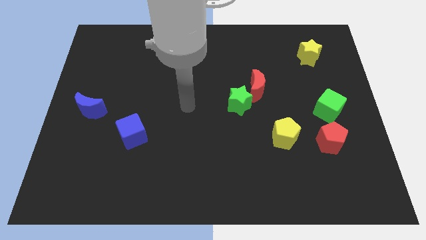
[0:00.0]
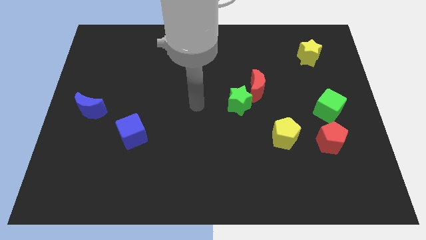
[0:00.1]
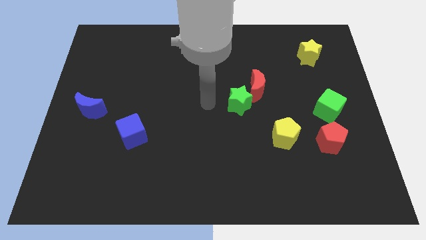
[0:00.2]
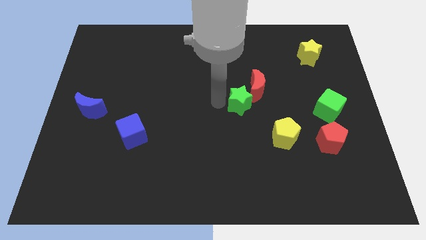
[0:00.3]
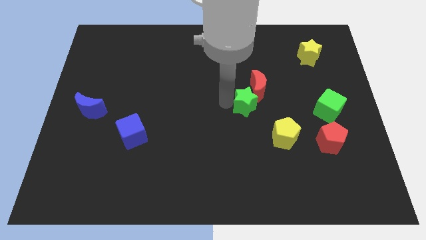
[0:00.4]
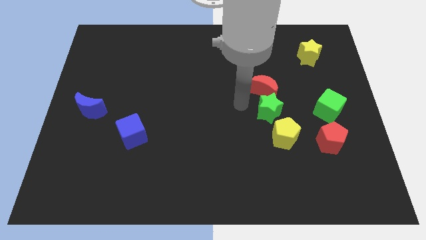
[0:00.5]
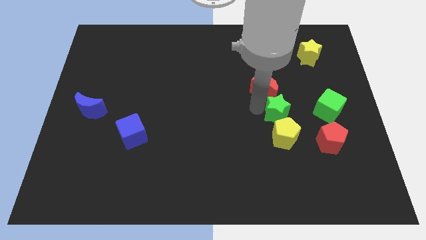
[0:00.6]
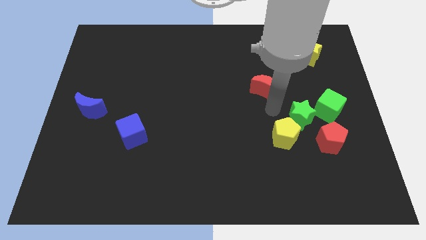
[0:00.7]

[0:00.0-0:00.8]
move the red moon away from the green star

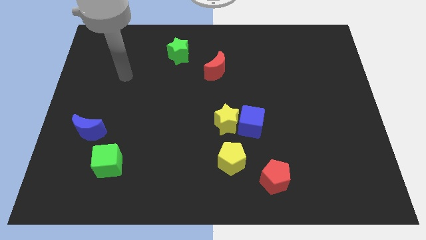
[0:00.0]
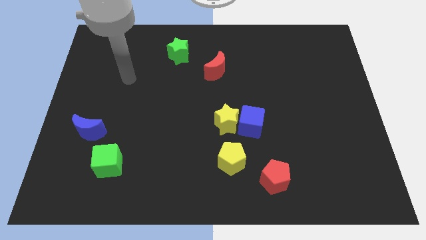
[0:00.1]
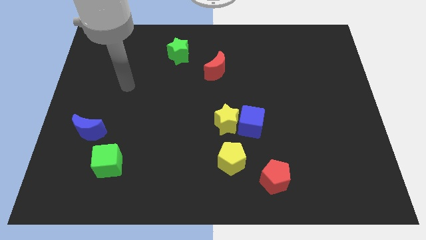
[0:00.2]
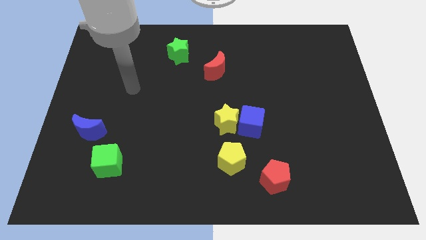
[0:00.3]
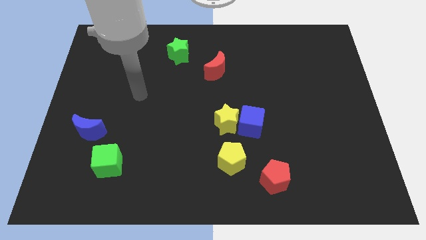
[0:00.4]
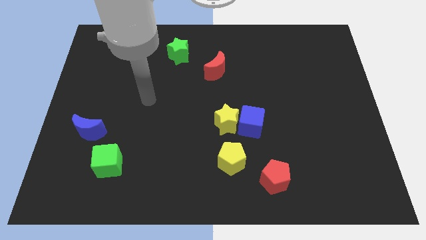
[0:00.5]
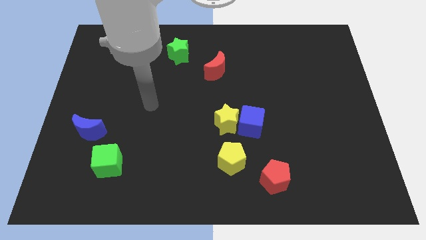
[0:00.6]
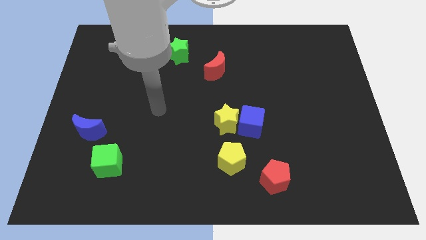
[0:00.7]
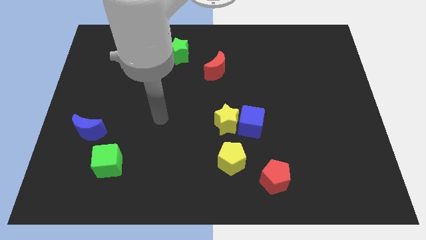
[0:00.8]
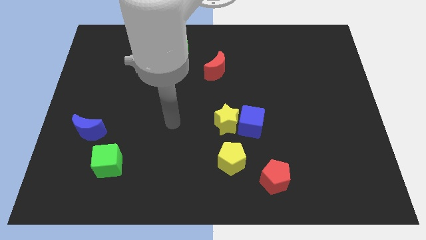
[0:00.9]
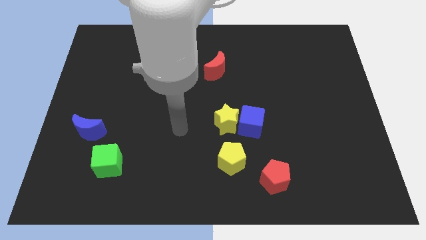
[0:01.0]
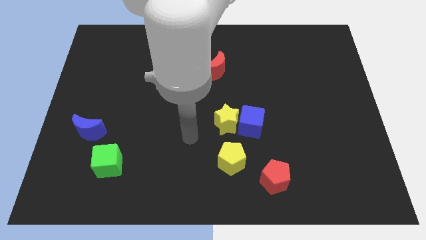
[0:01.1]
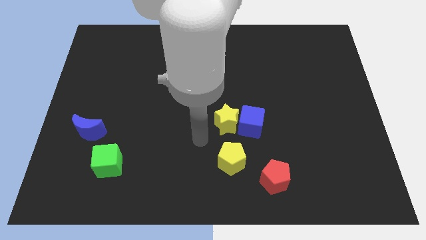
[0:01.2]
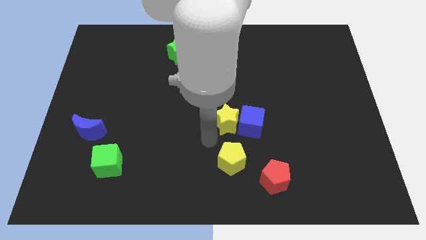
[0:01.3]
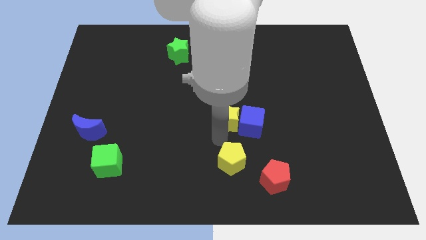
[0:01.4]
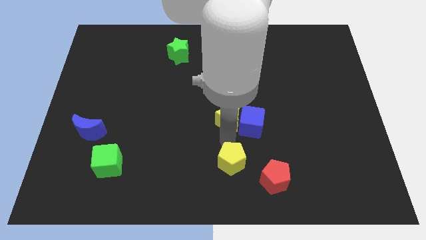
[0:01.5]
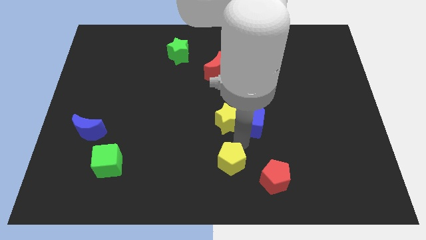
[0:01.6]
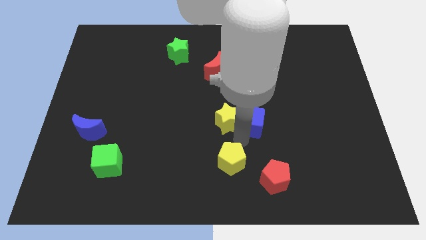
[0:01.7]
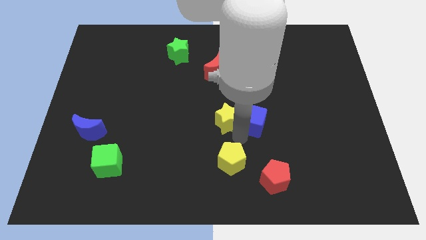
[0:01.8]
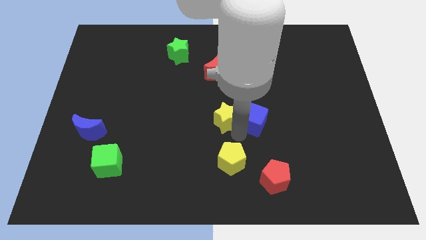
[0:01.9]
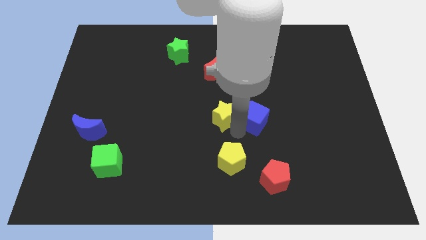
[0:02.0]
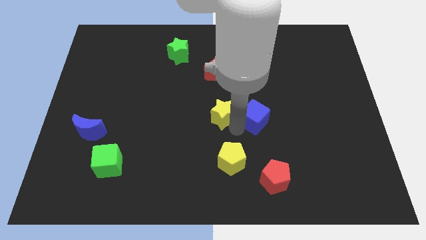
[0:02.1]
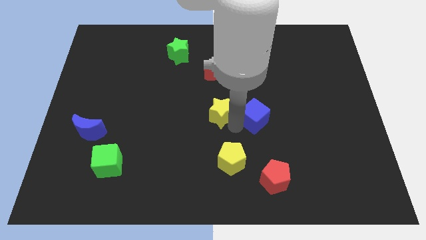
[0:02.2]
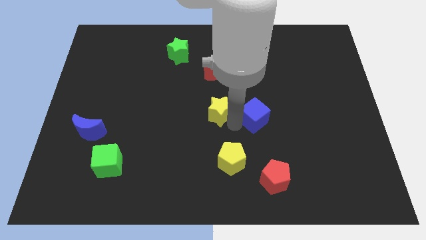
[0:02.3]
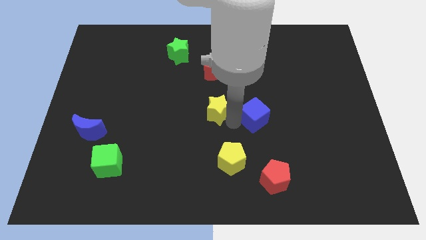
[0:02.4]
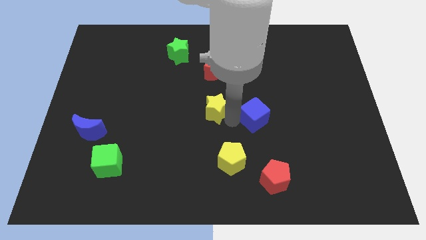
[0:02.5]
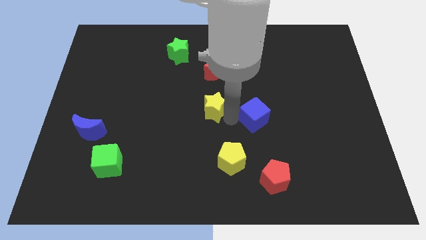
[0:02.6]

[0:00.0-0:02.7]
move the yellow star away from the blue cube and yellow pentagon

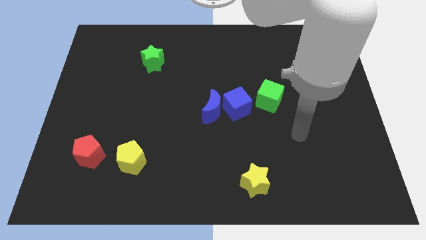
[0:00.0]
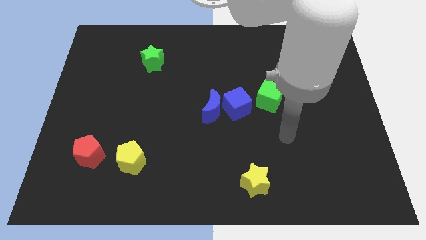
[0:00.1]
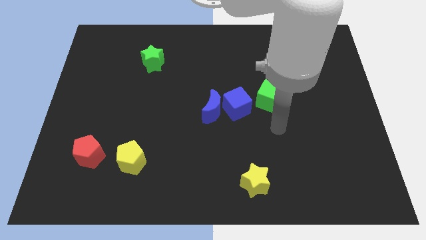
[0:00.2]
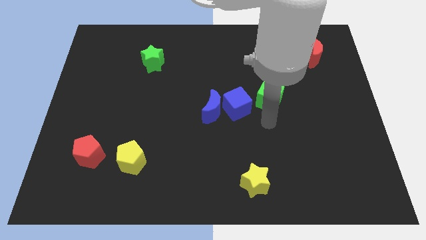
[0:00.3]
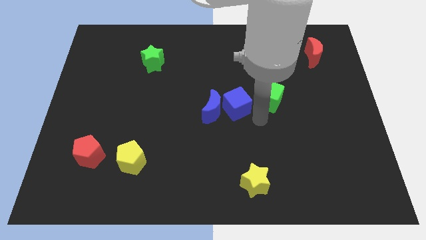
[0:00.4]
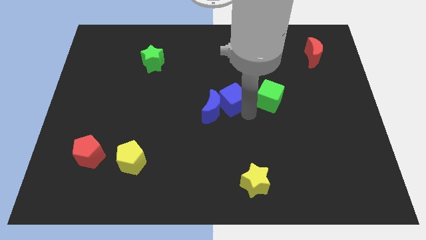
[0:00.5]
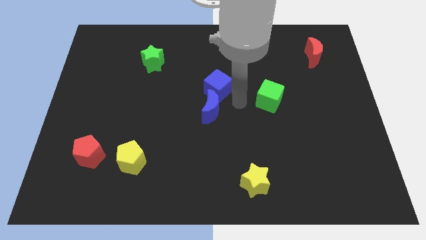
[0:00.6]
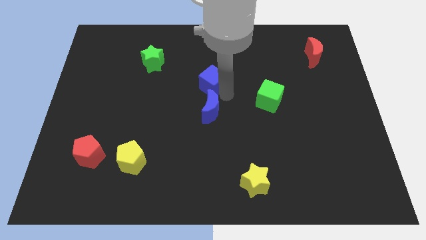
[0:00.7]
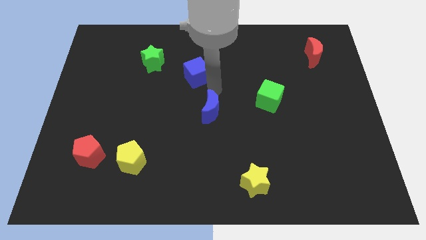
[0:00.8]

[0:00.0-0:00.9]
pull the blue moon apart from the blue cube

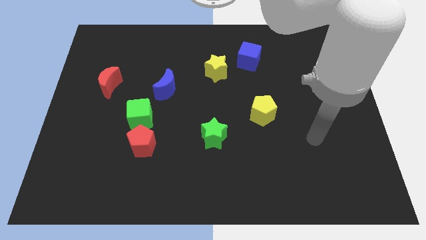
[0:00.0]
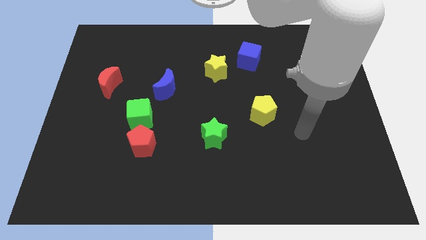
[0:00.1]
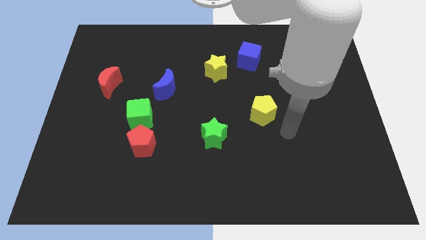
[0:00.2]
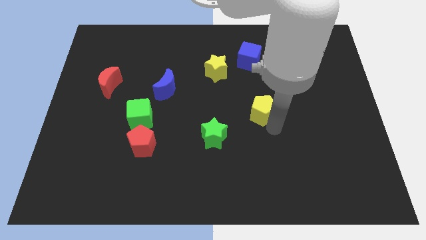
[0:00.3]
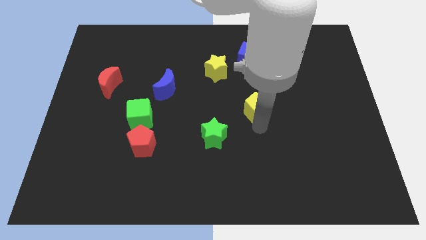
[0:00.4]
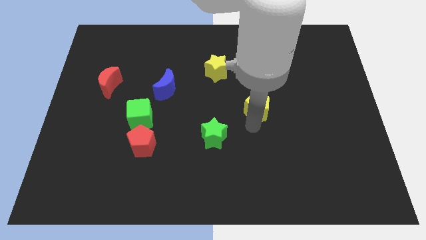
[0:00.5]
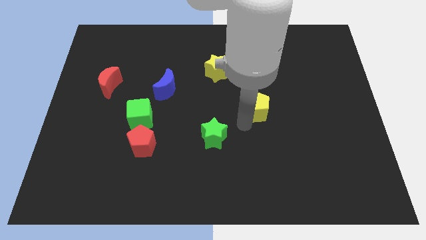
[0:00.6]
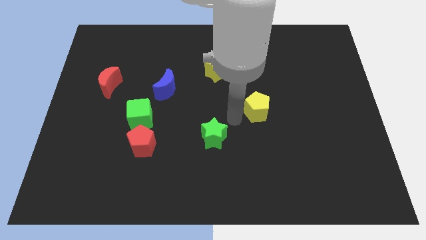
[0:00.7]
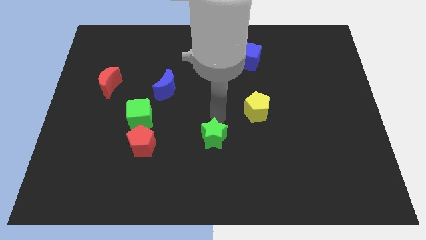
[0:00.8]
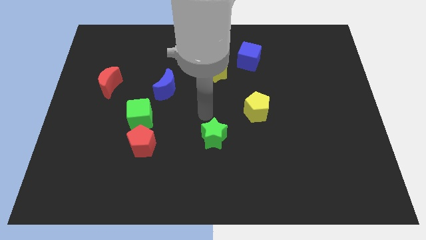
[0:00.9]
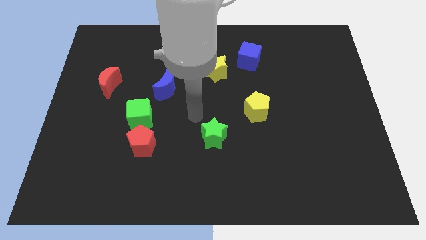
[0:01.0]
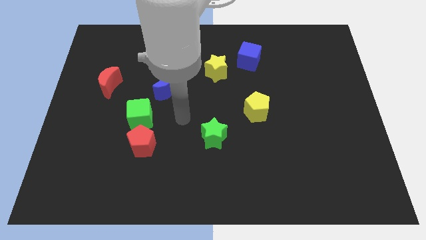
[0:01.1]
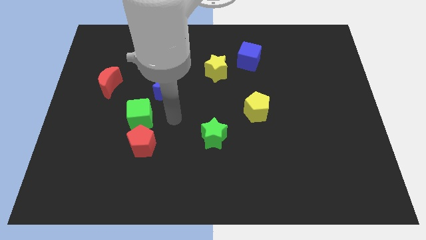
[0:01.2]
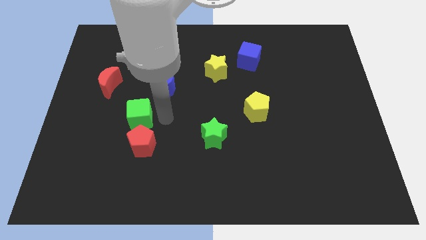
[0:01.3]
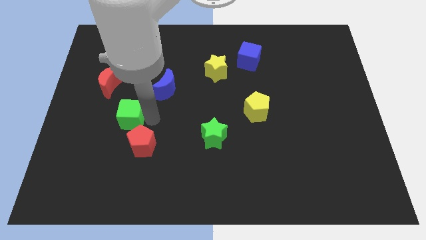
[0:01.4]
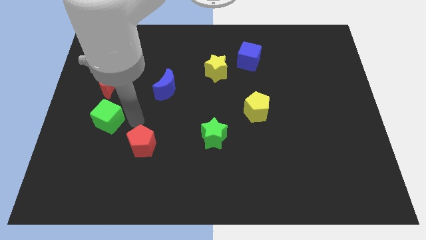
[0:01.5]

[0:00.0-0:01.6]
move the red pentagon away from the green cube

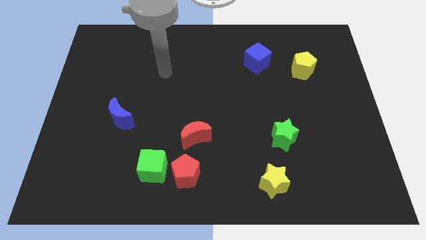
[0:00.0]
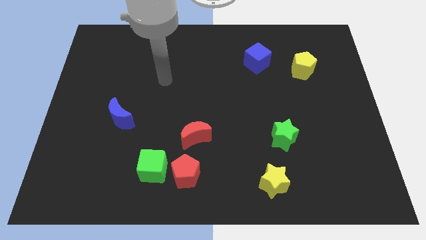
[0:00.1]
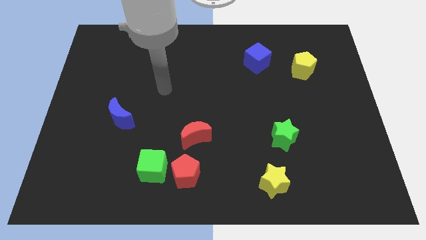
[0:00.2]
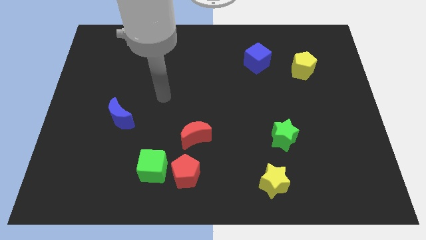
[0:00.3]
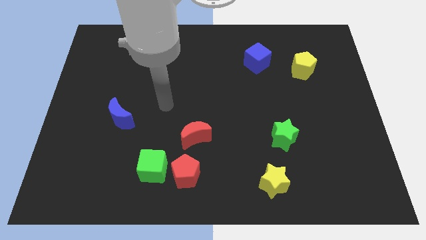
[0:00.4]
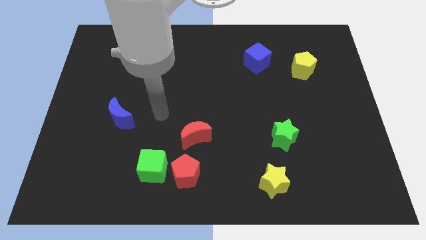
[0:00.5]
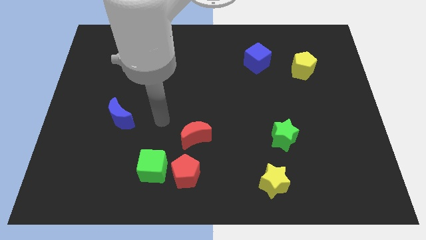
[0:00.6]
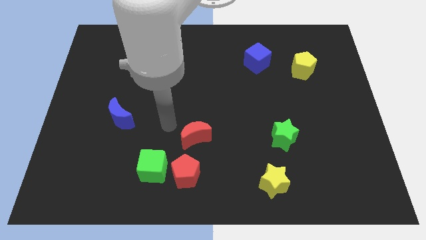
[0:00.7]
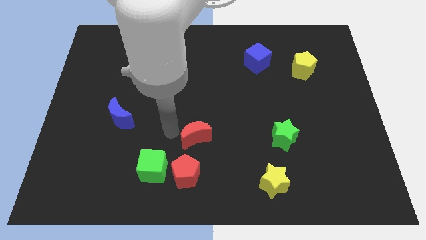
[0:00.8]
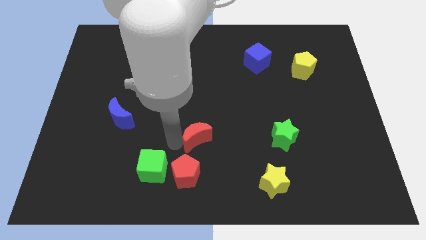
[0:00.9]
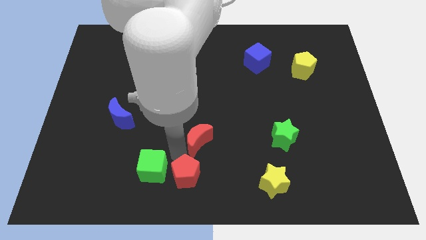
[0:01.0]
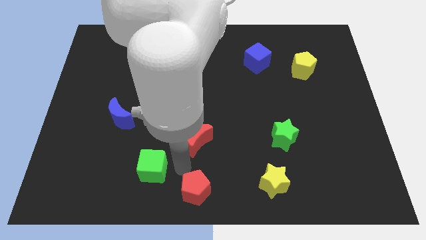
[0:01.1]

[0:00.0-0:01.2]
pull the green cube apart from the red pentagon

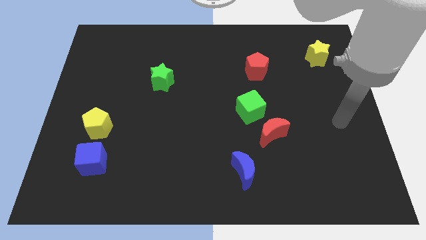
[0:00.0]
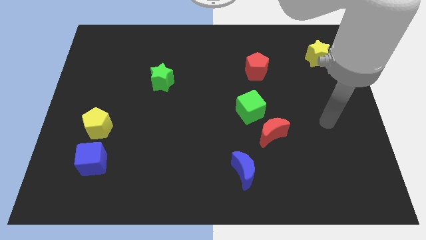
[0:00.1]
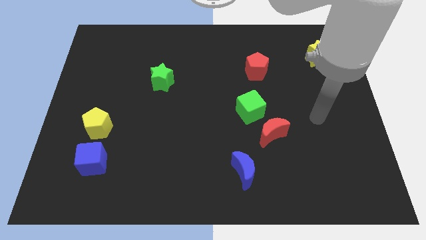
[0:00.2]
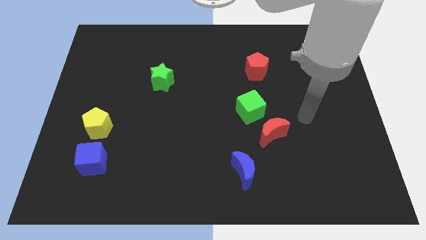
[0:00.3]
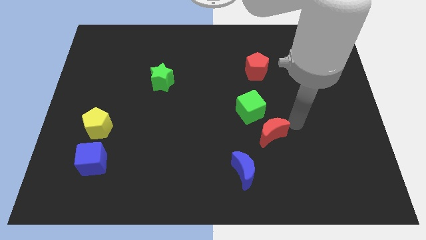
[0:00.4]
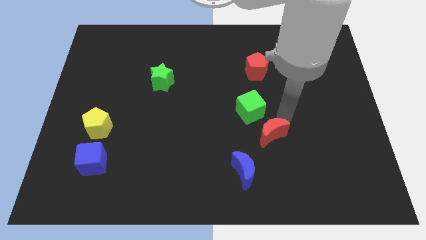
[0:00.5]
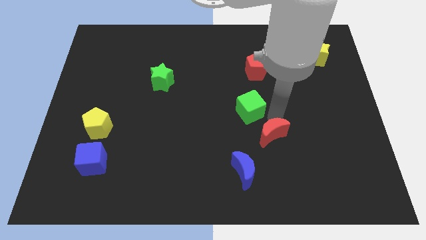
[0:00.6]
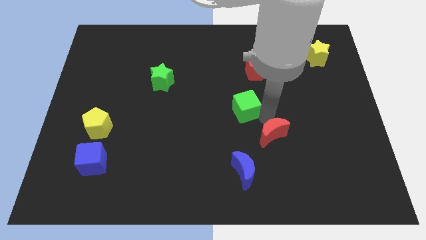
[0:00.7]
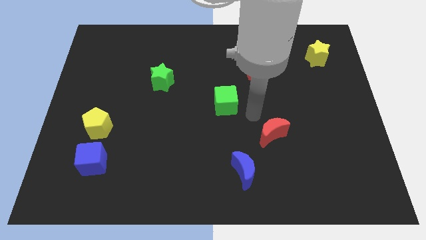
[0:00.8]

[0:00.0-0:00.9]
separate the red moon from the green cube

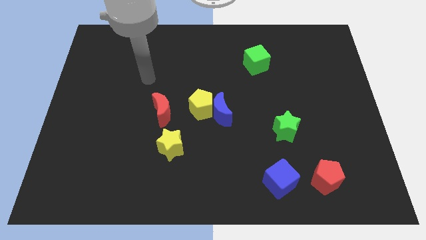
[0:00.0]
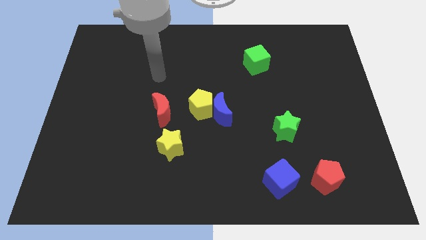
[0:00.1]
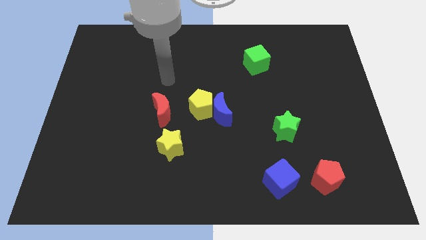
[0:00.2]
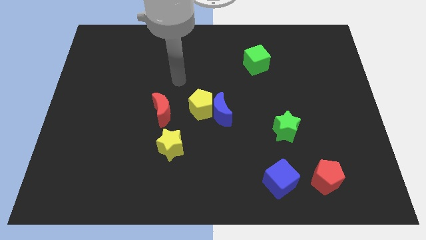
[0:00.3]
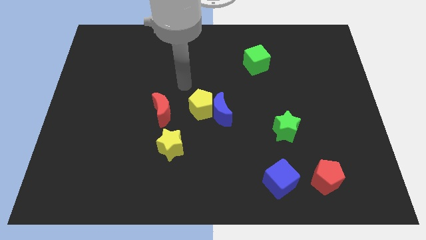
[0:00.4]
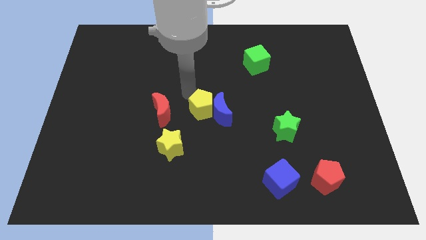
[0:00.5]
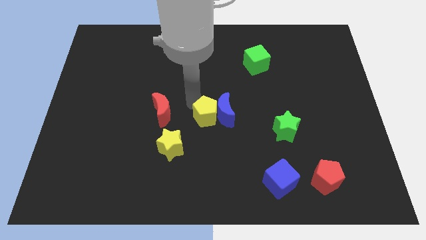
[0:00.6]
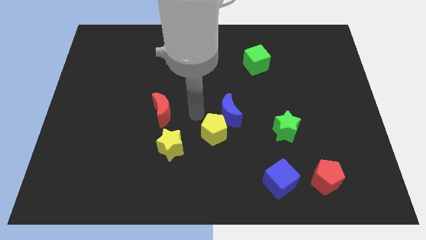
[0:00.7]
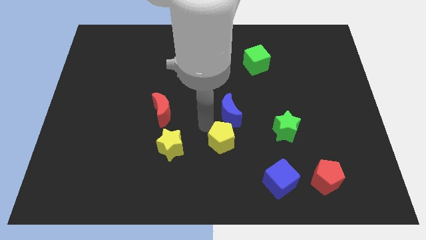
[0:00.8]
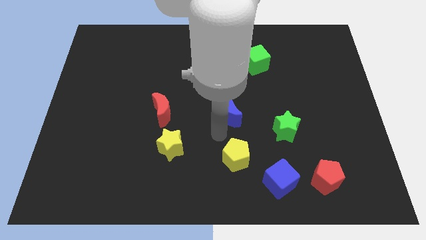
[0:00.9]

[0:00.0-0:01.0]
separate the blue moon from the yellow pentagon

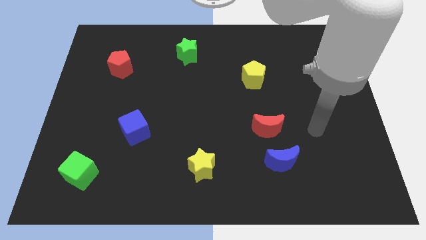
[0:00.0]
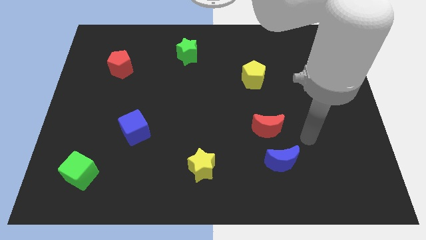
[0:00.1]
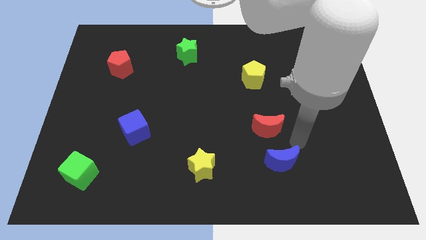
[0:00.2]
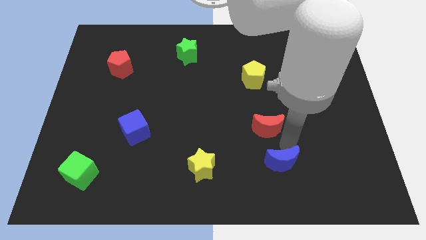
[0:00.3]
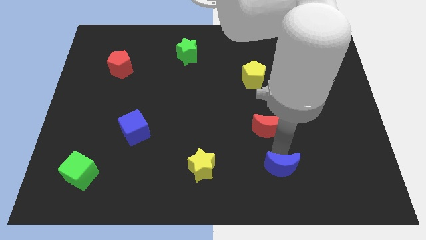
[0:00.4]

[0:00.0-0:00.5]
separate the red moon from the blue moon
